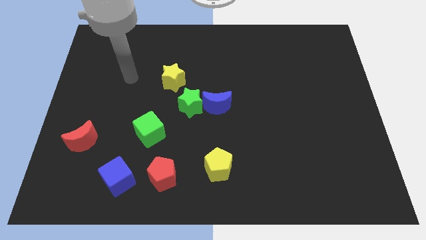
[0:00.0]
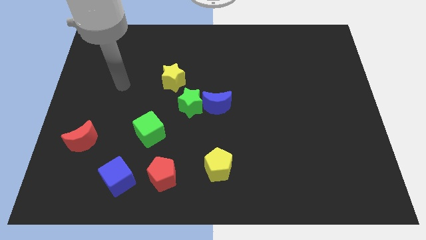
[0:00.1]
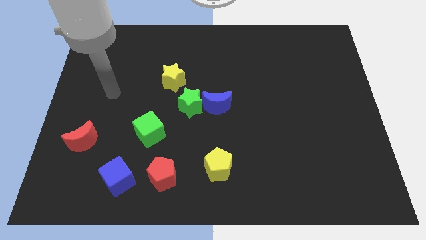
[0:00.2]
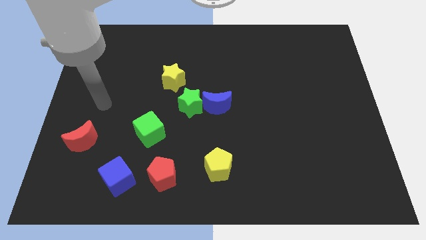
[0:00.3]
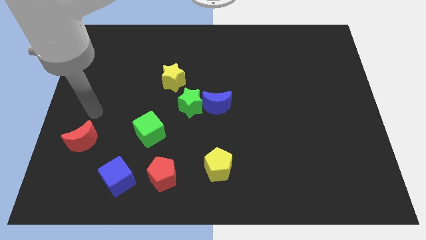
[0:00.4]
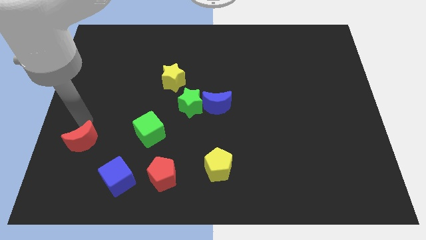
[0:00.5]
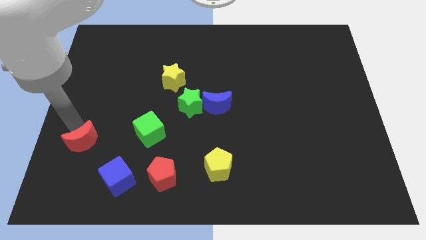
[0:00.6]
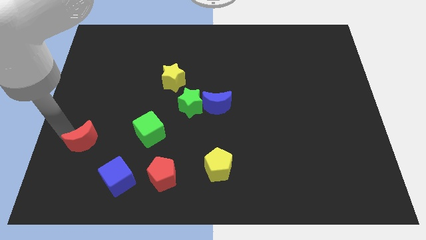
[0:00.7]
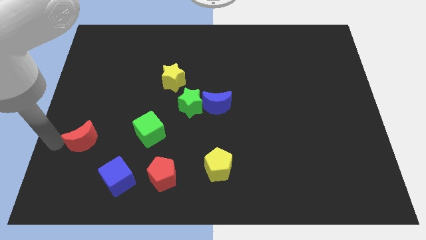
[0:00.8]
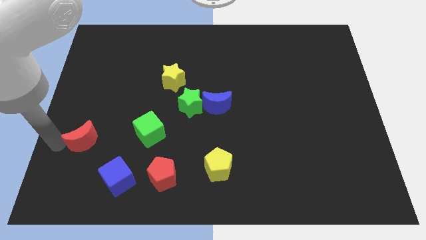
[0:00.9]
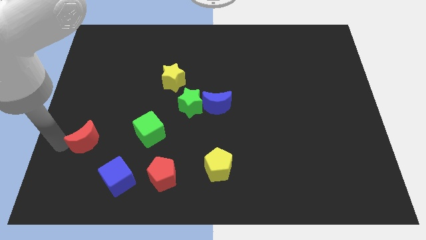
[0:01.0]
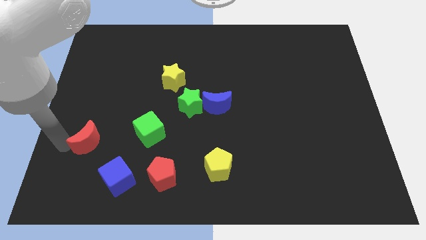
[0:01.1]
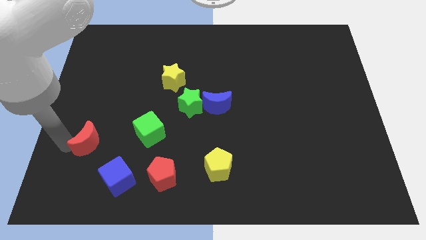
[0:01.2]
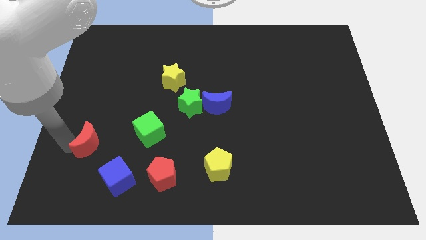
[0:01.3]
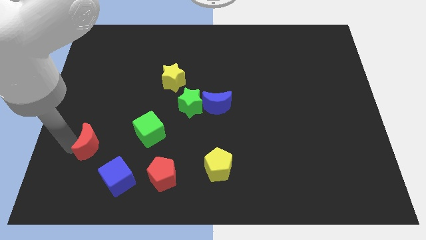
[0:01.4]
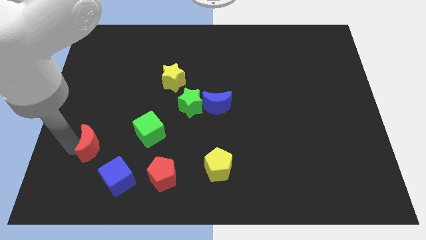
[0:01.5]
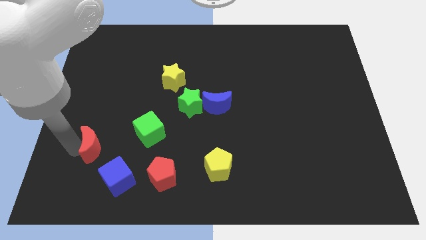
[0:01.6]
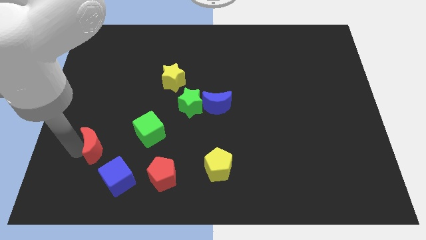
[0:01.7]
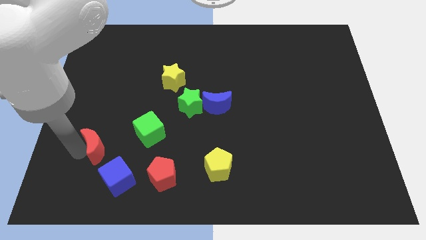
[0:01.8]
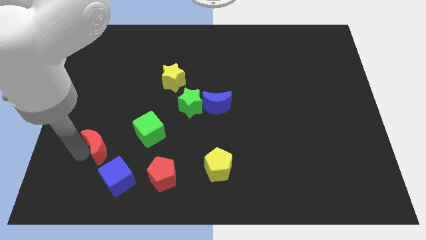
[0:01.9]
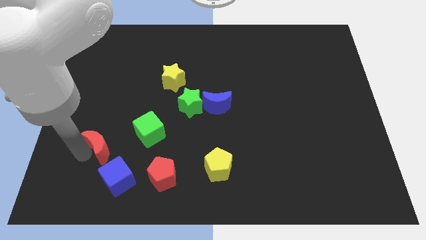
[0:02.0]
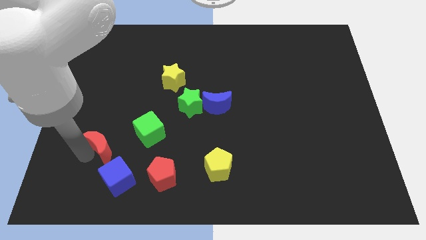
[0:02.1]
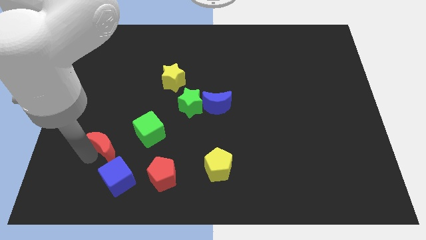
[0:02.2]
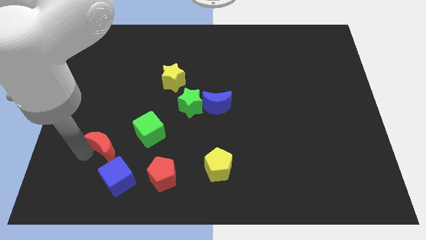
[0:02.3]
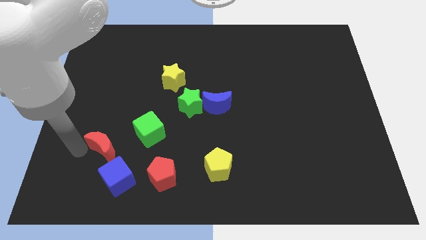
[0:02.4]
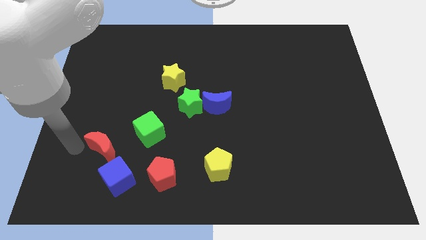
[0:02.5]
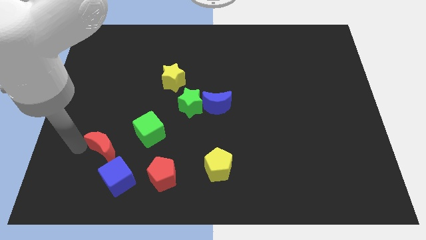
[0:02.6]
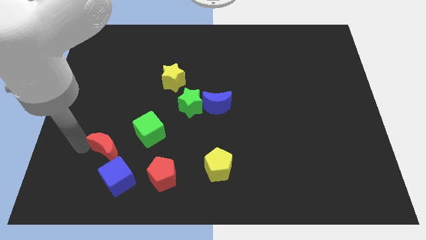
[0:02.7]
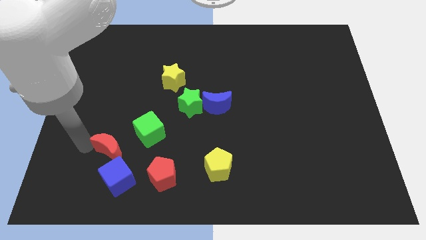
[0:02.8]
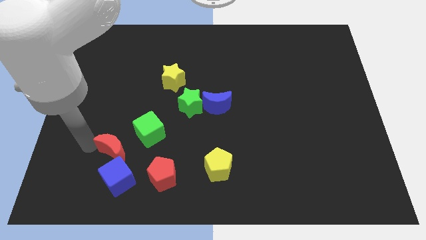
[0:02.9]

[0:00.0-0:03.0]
move the red moon a little bit to the right

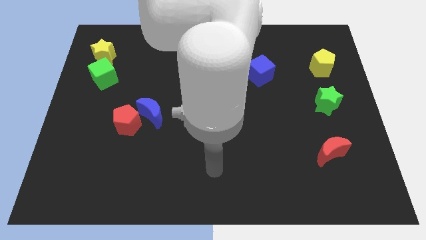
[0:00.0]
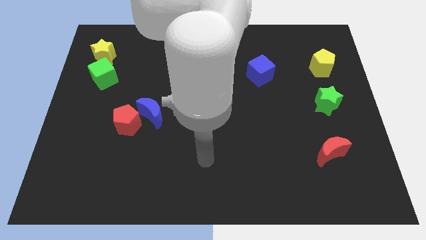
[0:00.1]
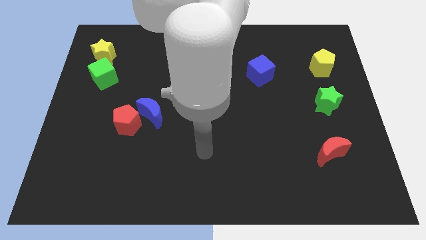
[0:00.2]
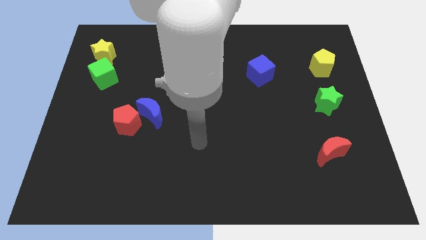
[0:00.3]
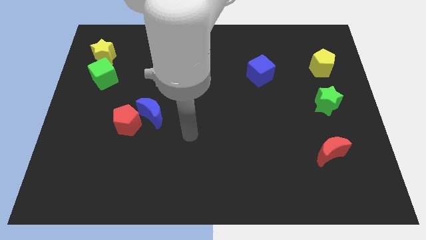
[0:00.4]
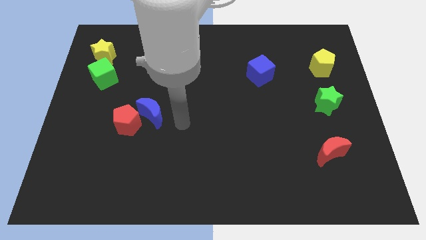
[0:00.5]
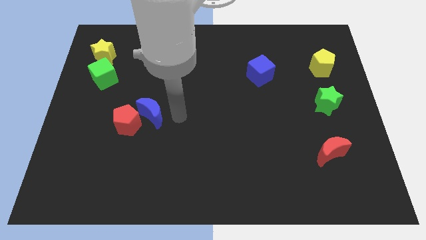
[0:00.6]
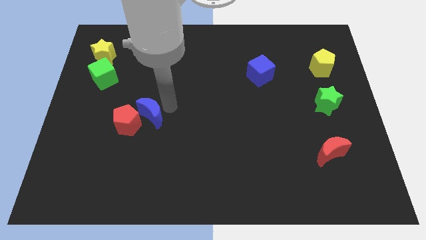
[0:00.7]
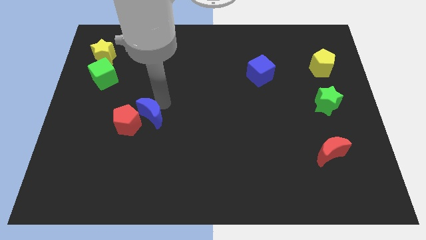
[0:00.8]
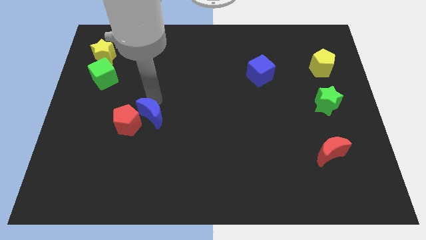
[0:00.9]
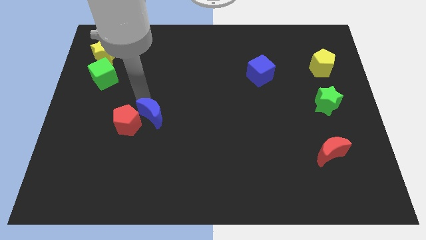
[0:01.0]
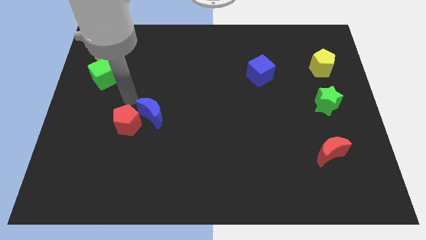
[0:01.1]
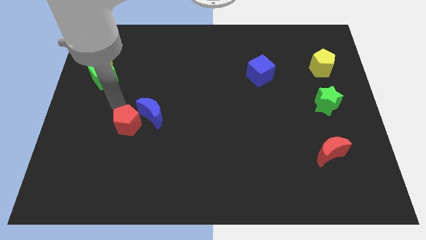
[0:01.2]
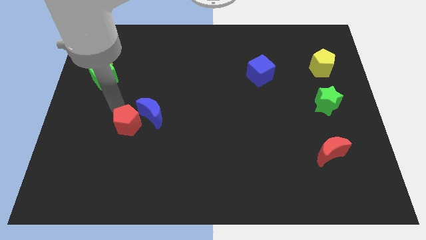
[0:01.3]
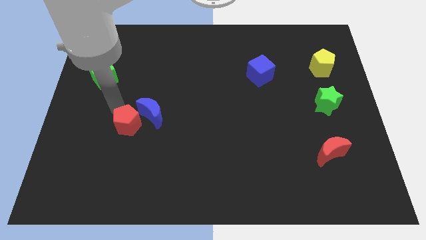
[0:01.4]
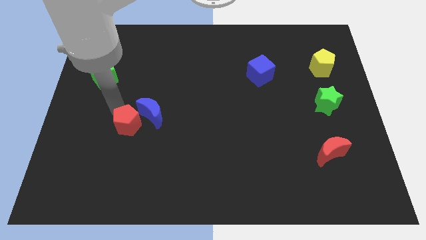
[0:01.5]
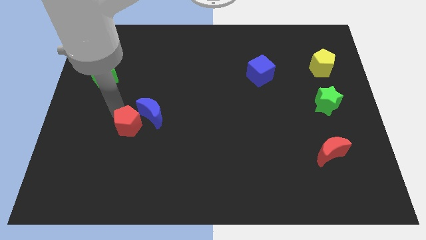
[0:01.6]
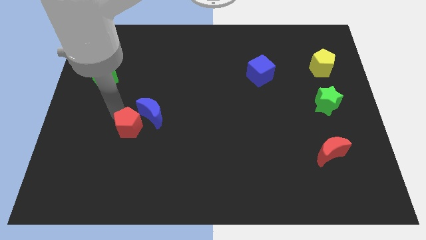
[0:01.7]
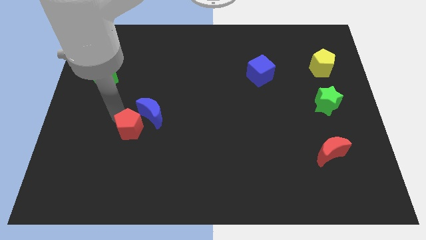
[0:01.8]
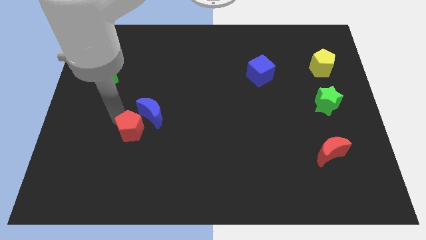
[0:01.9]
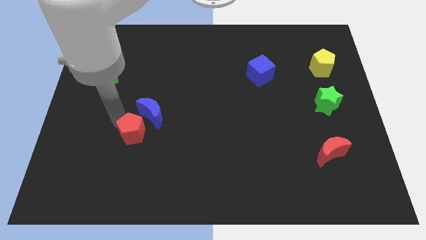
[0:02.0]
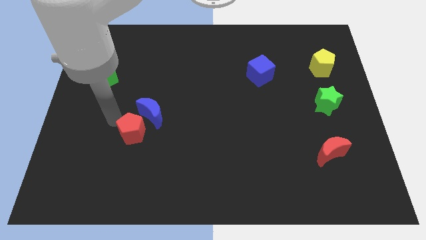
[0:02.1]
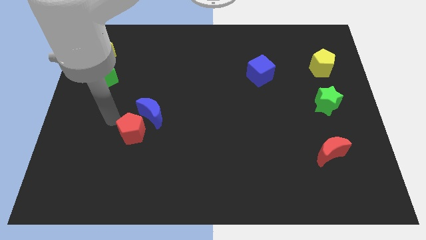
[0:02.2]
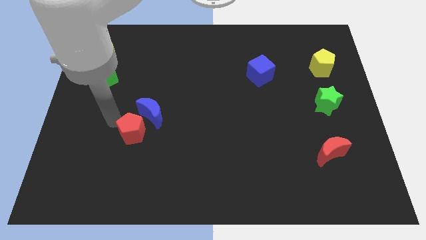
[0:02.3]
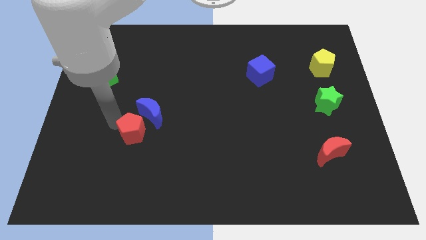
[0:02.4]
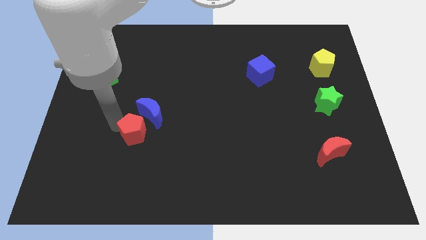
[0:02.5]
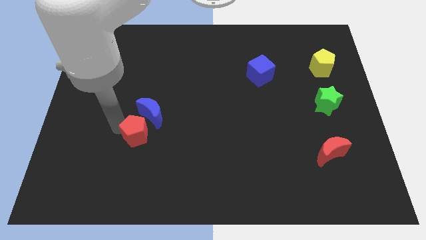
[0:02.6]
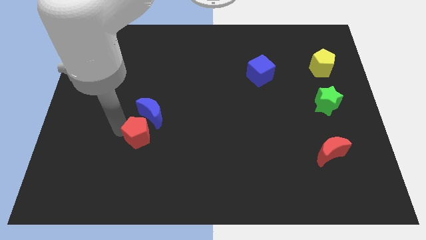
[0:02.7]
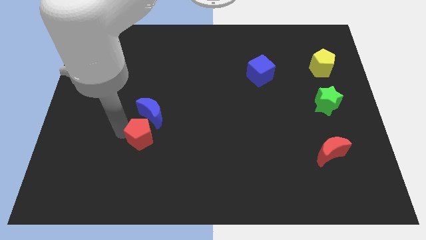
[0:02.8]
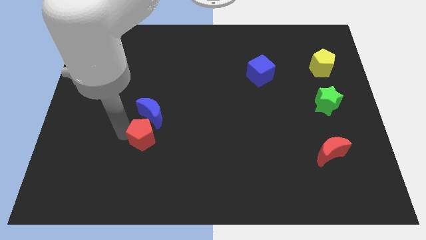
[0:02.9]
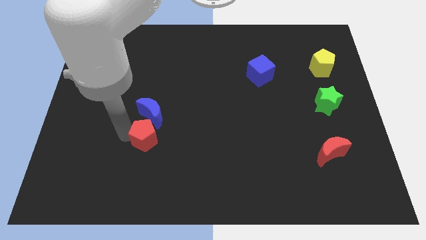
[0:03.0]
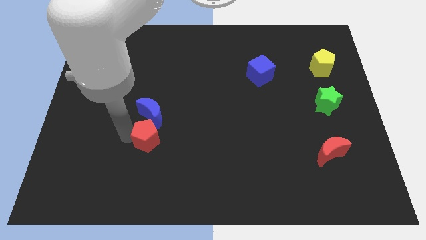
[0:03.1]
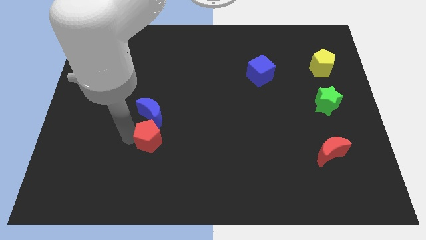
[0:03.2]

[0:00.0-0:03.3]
move the red pentagon down and to the right a bit

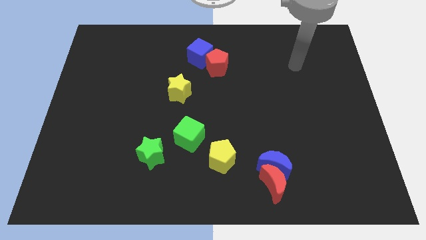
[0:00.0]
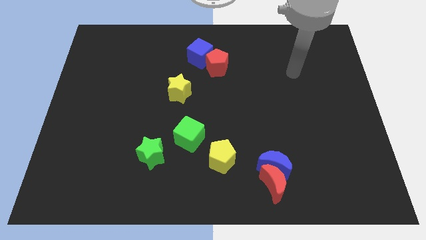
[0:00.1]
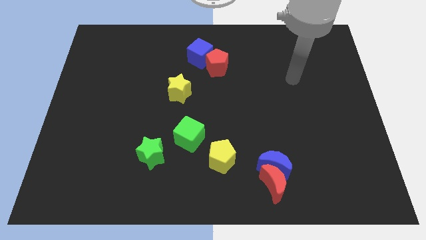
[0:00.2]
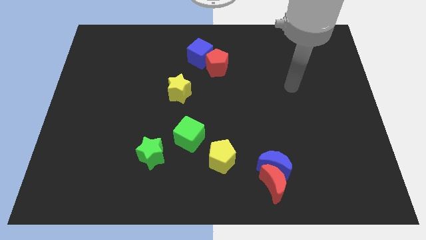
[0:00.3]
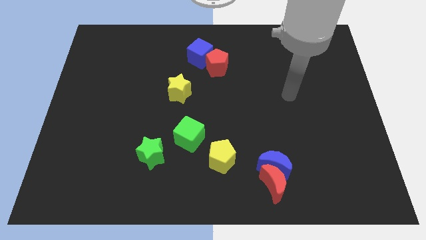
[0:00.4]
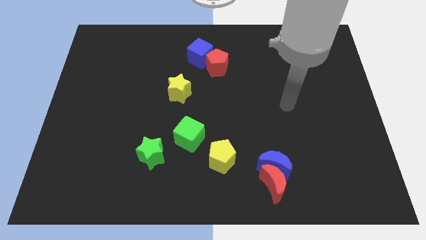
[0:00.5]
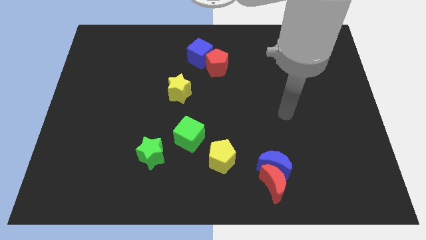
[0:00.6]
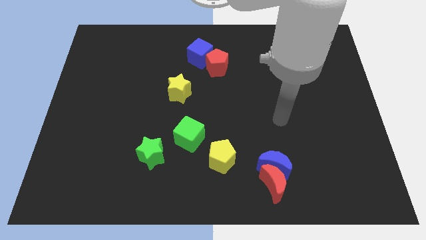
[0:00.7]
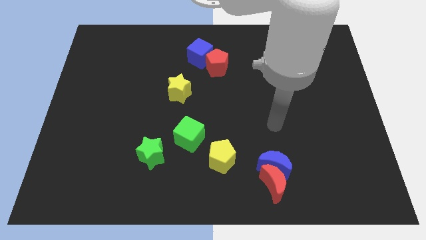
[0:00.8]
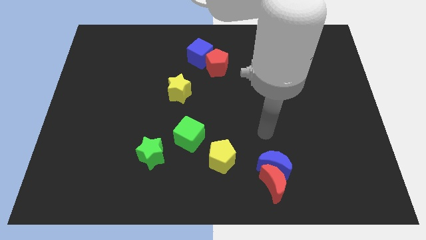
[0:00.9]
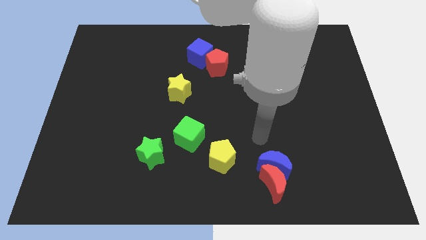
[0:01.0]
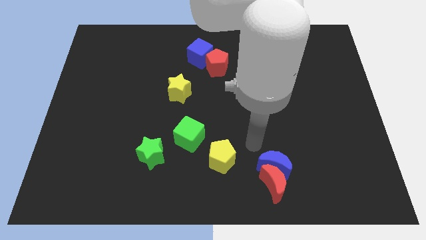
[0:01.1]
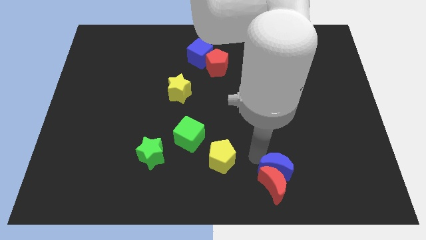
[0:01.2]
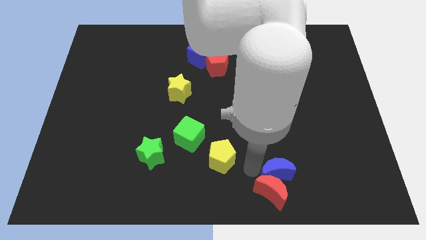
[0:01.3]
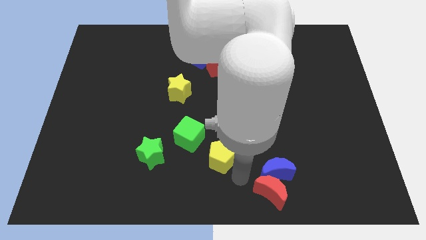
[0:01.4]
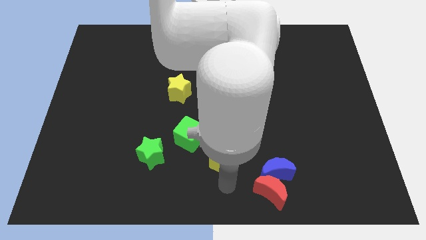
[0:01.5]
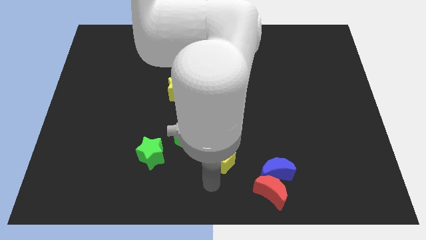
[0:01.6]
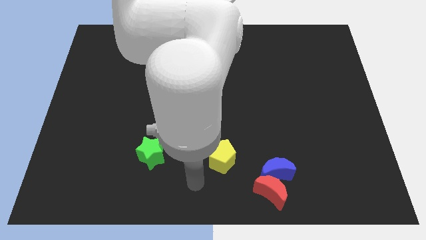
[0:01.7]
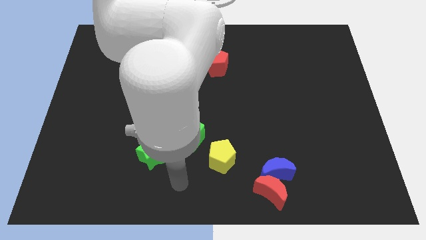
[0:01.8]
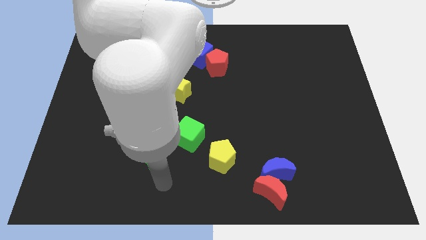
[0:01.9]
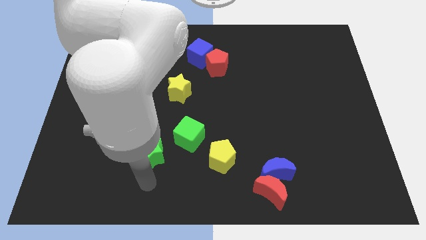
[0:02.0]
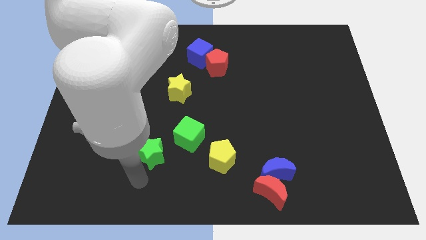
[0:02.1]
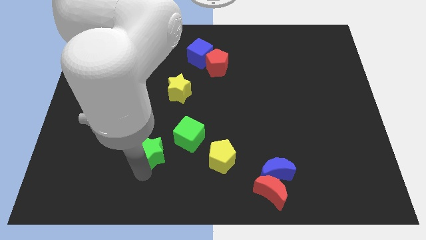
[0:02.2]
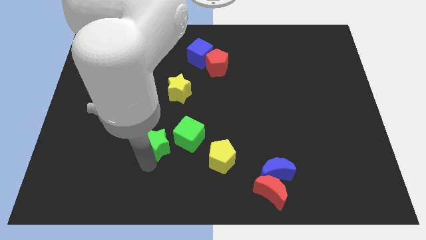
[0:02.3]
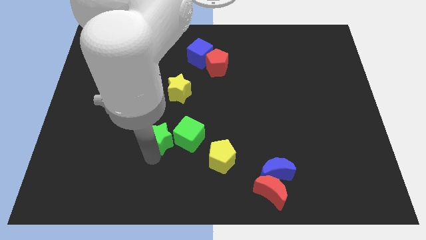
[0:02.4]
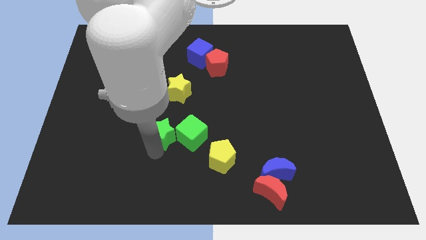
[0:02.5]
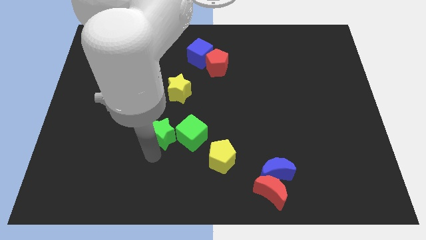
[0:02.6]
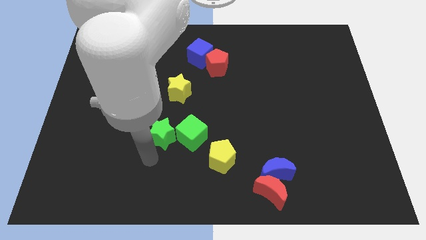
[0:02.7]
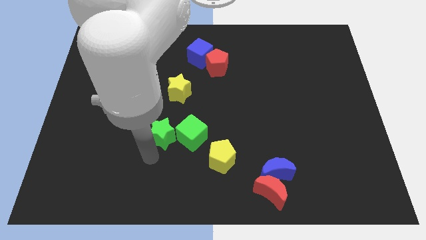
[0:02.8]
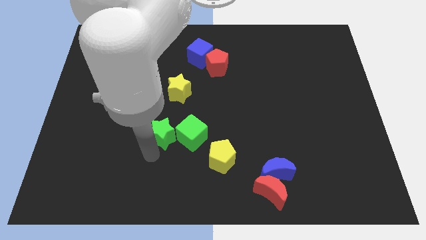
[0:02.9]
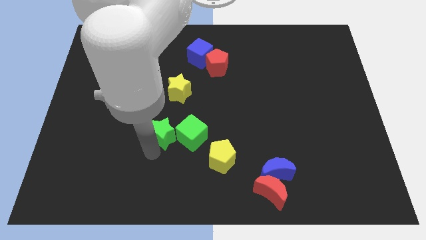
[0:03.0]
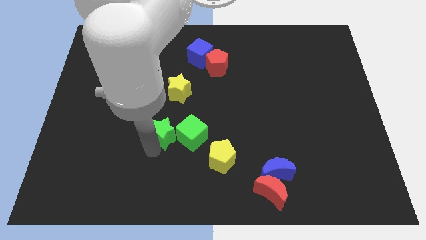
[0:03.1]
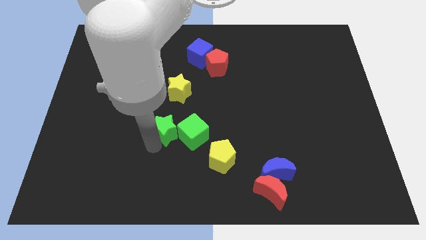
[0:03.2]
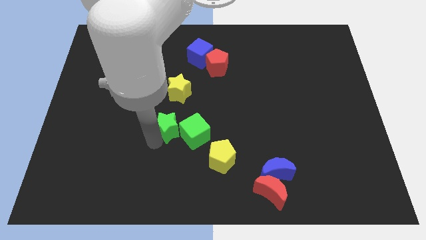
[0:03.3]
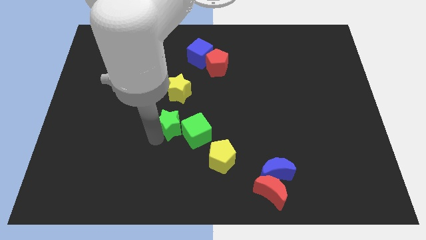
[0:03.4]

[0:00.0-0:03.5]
slightly move the green star diagonally up and right
